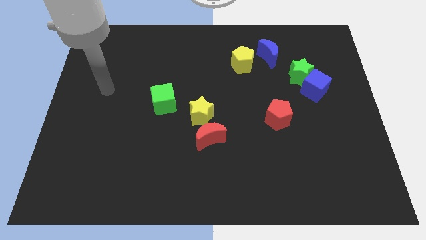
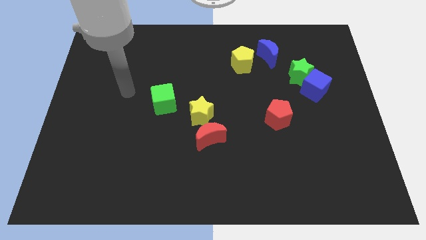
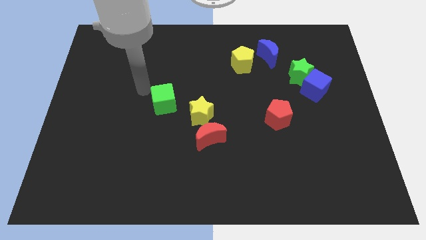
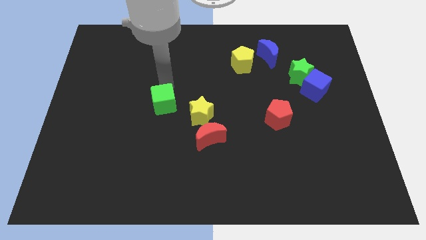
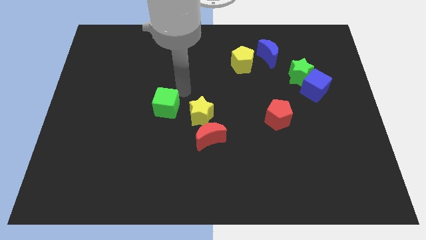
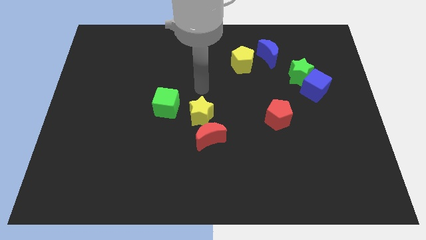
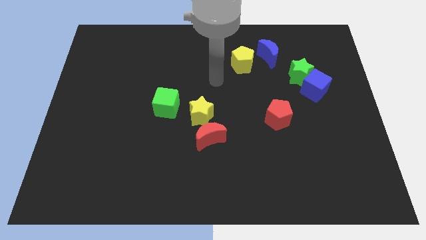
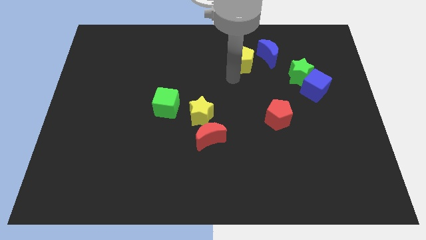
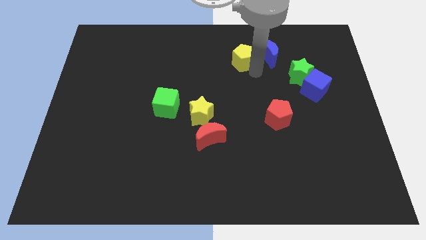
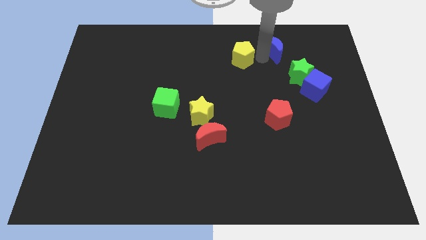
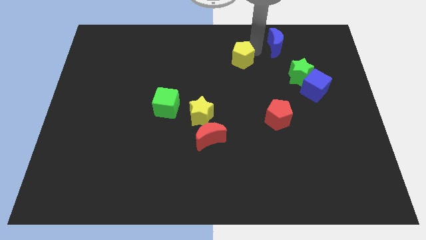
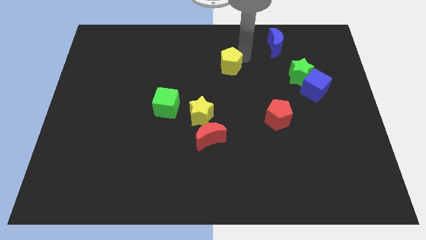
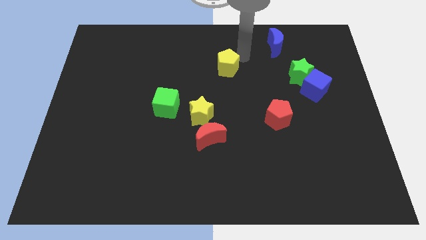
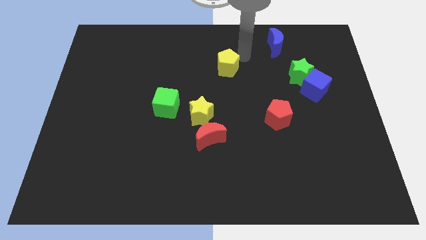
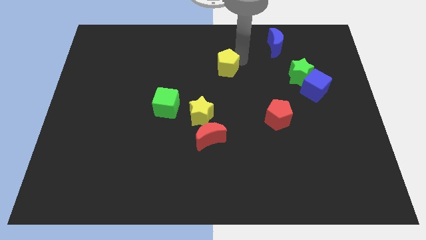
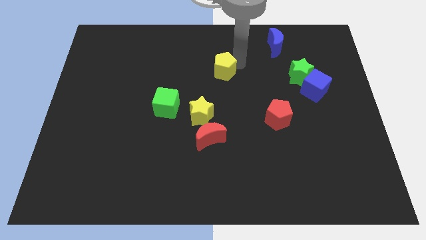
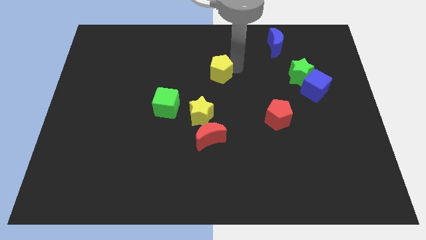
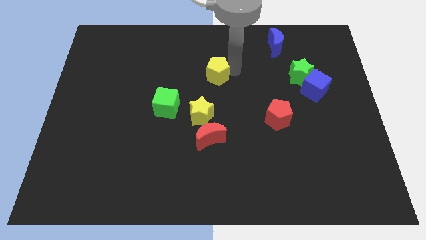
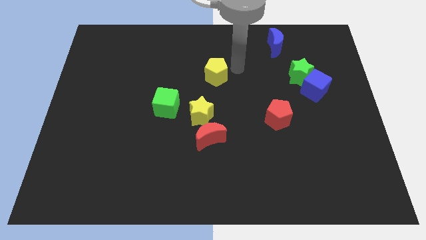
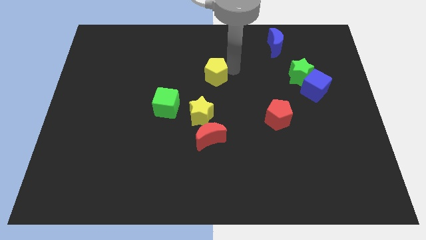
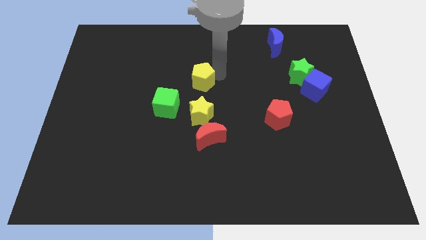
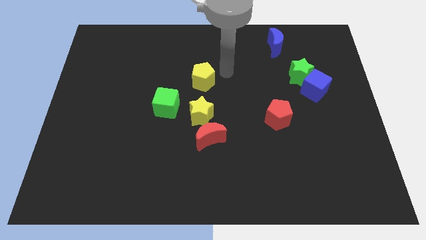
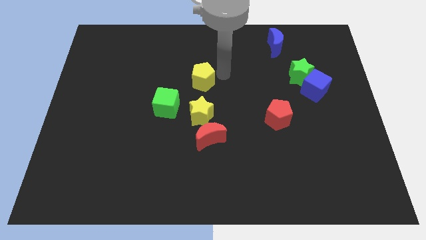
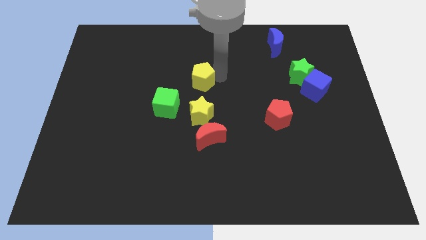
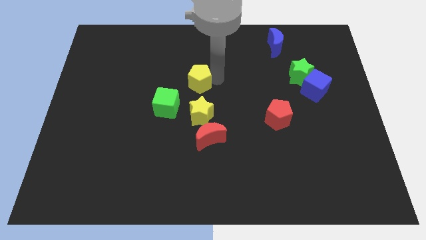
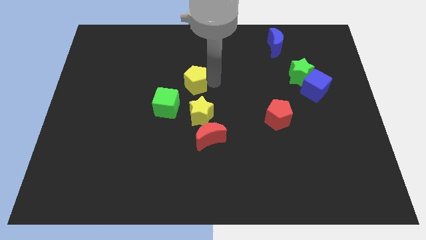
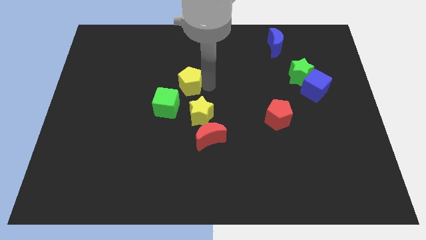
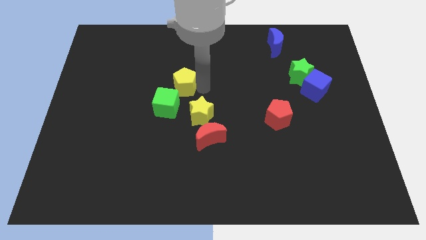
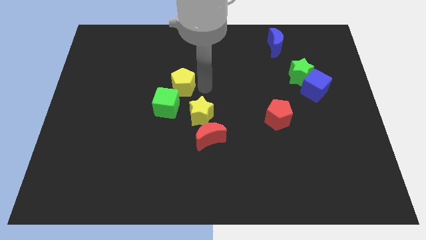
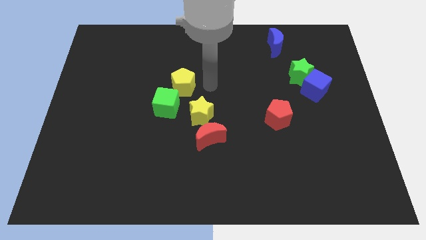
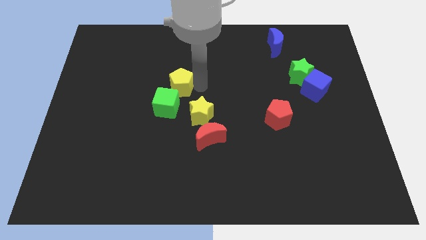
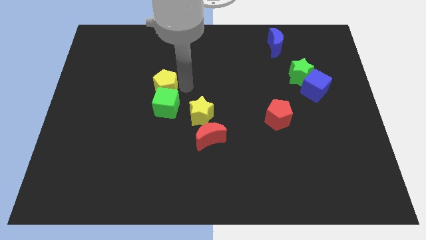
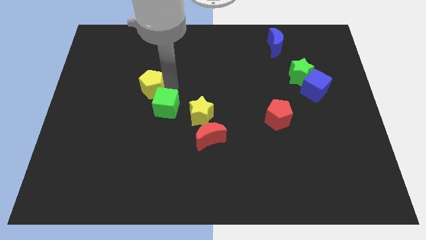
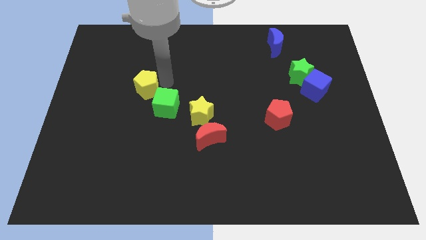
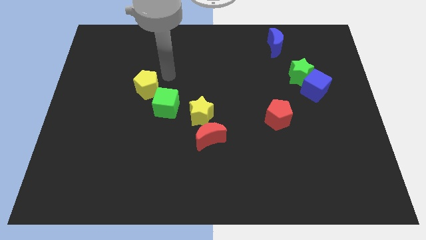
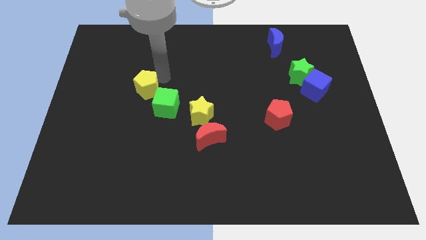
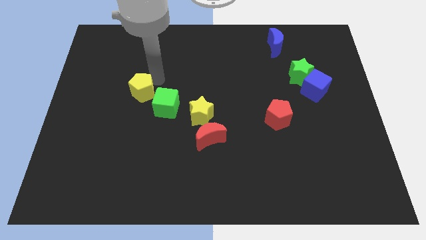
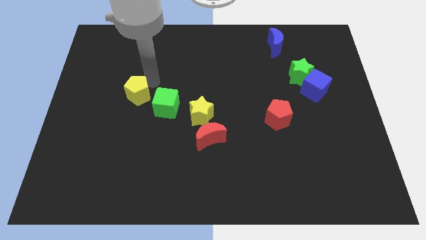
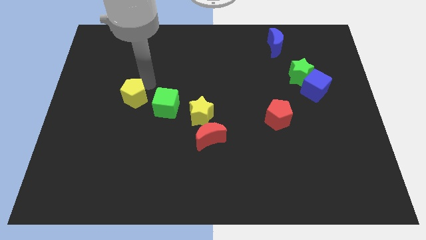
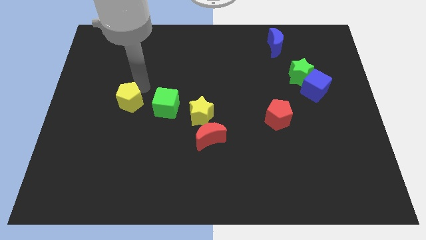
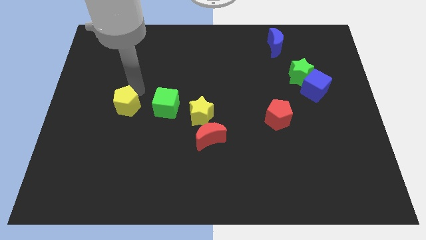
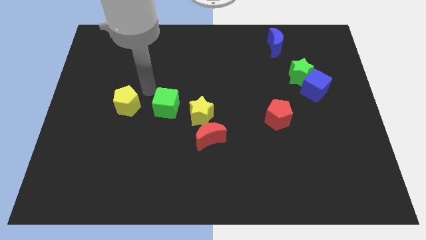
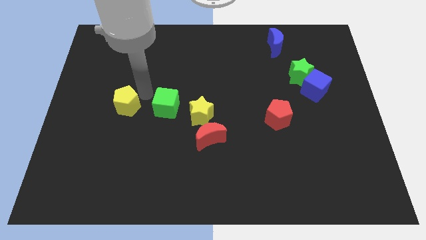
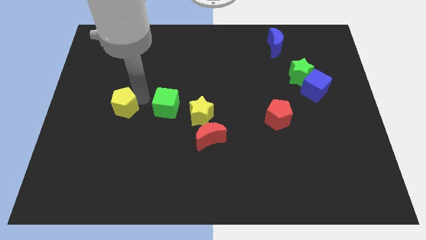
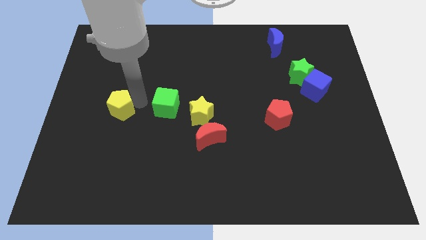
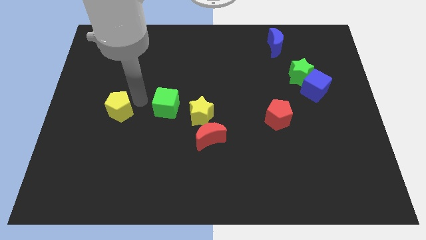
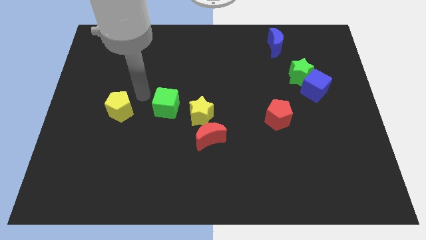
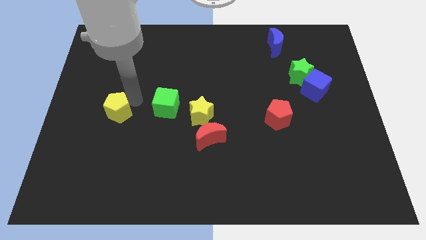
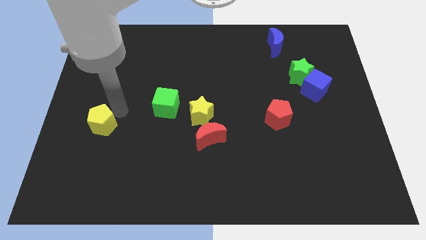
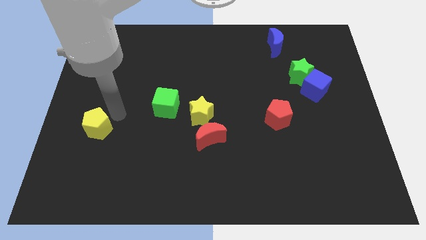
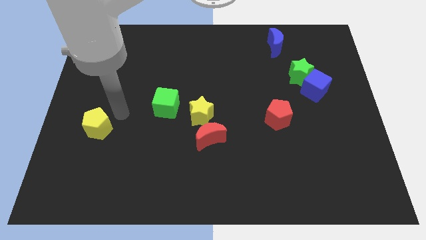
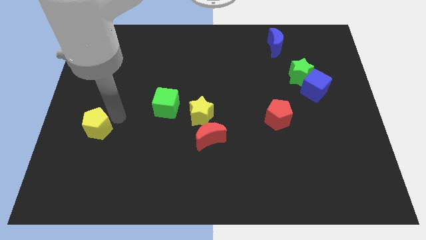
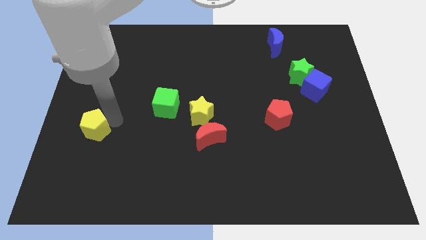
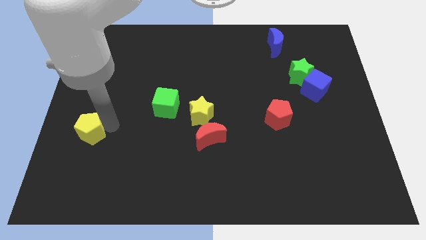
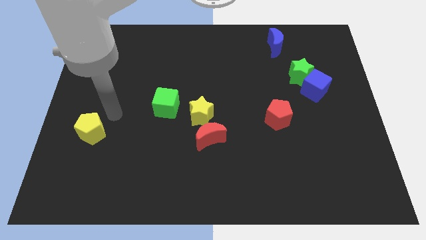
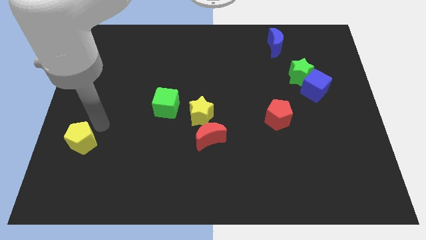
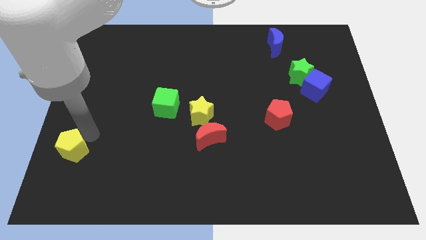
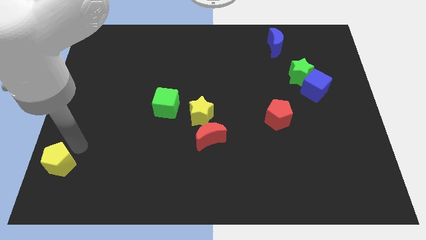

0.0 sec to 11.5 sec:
push the yellow pentagon to the bottom left of the board

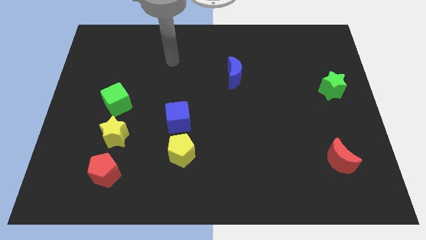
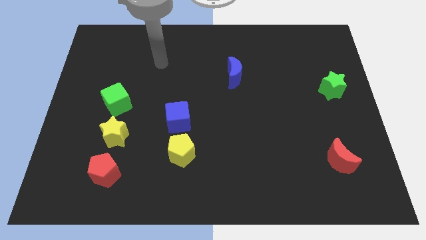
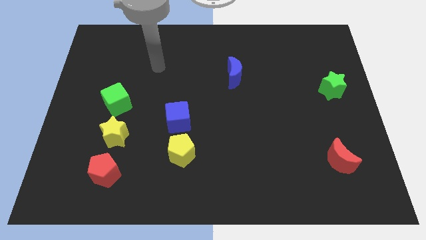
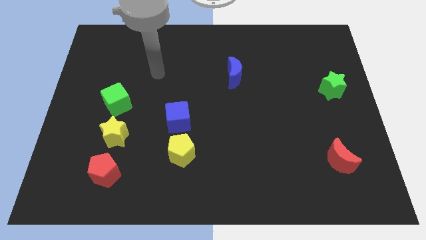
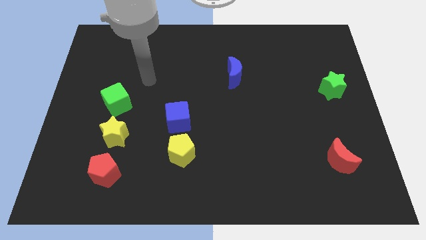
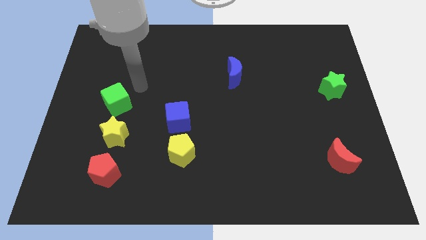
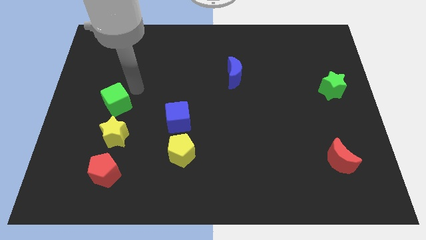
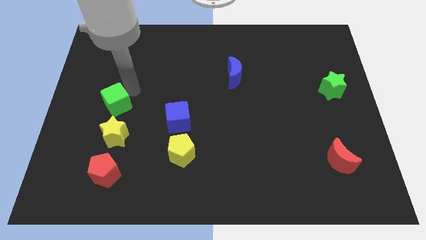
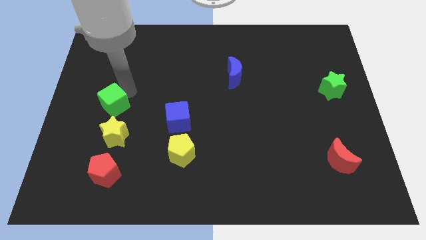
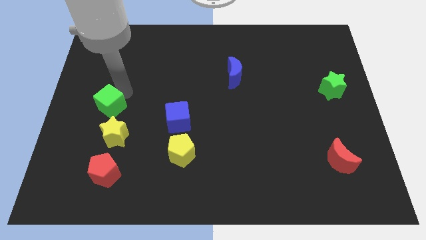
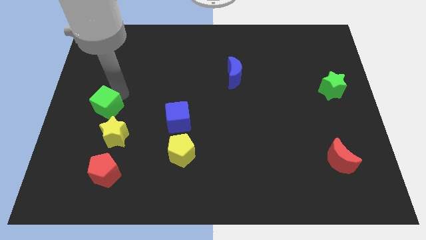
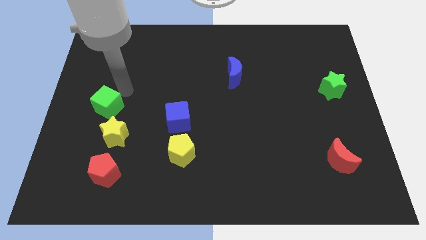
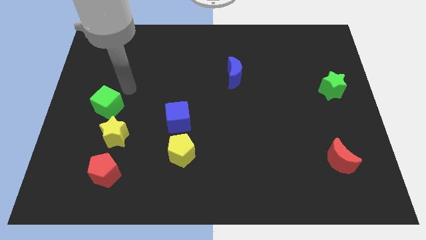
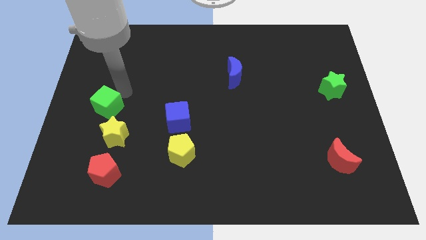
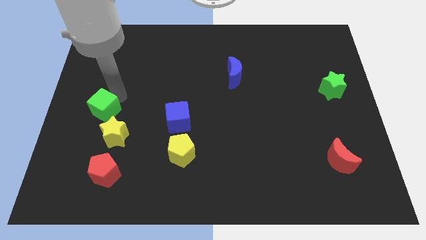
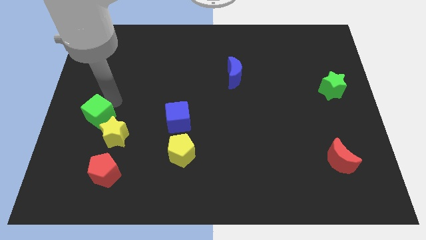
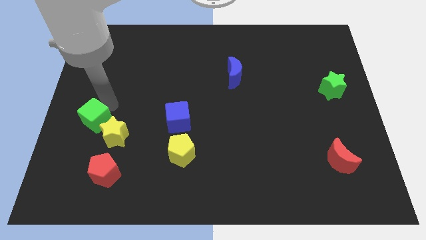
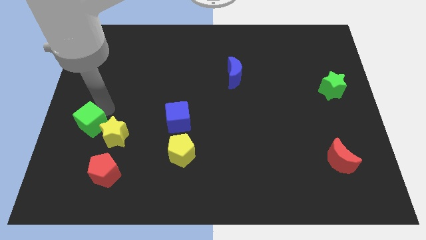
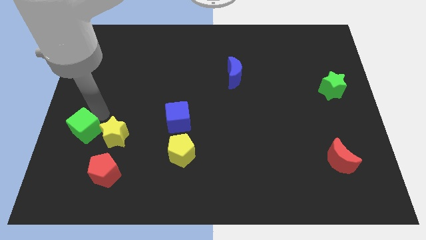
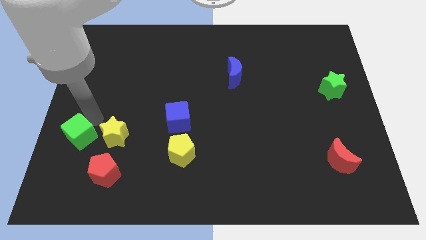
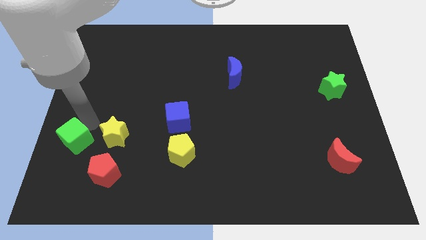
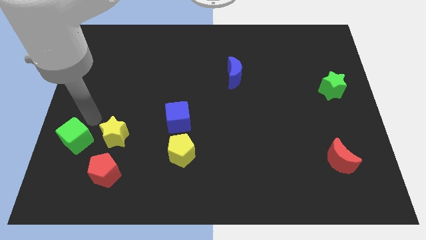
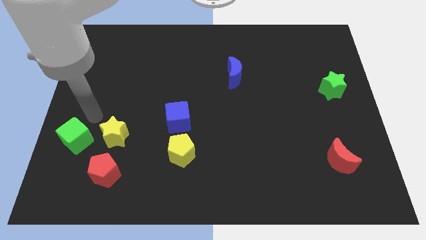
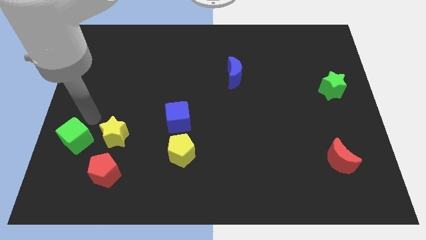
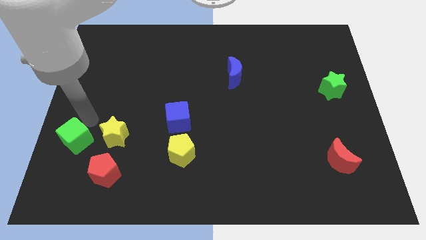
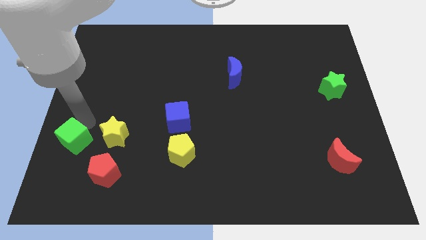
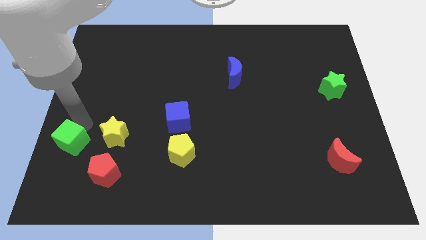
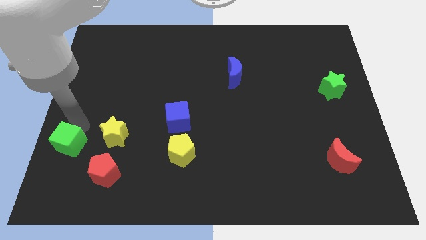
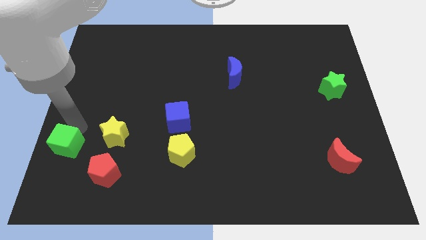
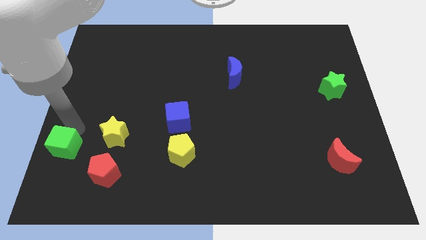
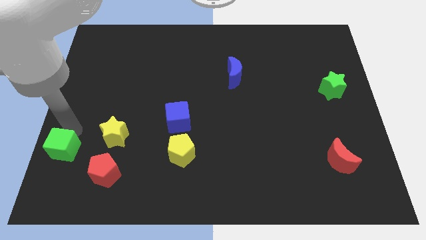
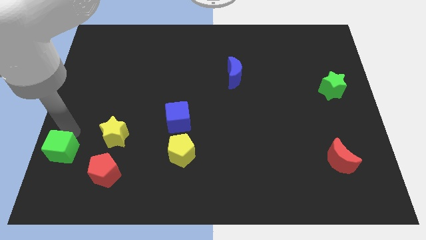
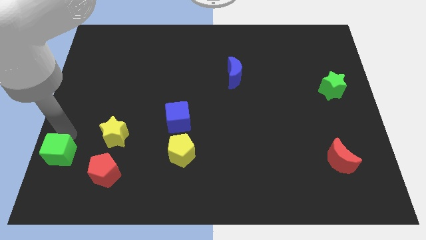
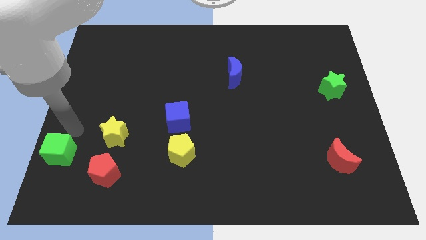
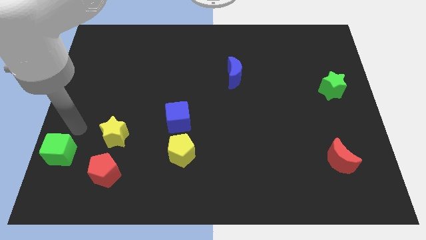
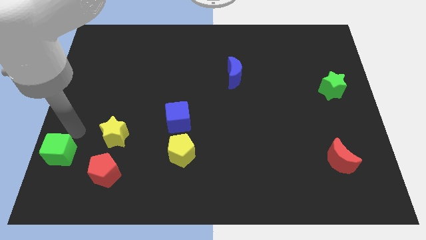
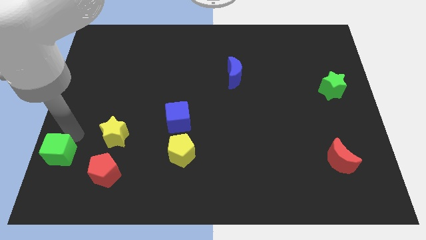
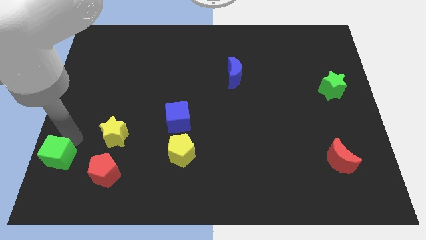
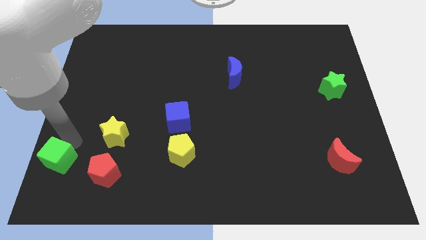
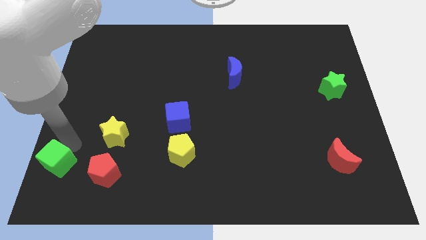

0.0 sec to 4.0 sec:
slide the green cube to the bottom left
